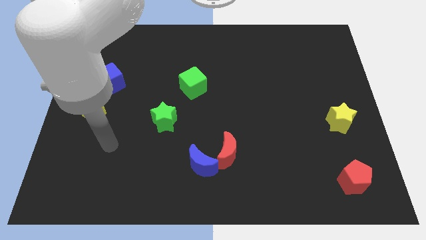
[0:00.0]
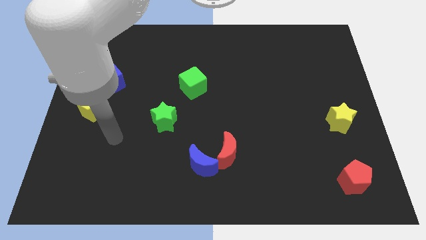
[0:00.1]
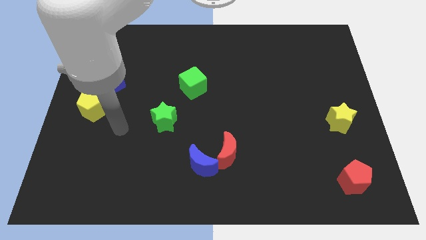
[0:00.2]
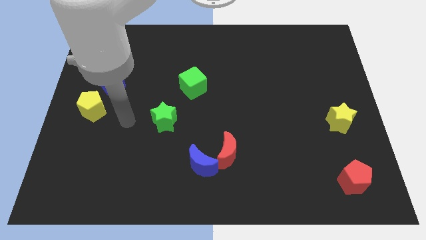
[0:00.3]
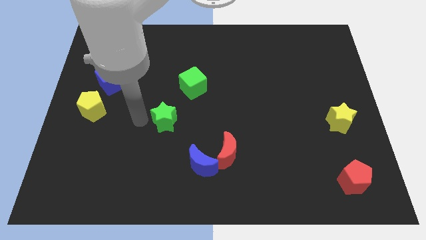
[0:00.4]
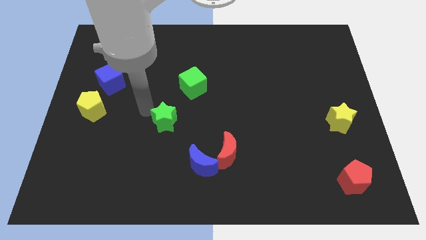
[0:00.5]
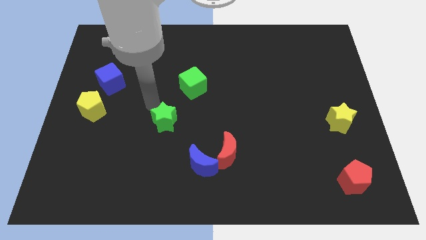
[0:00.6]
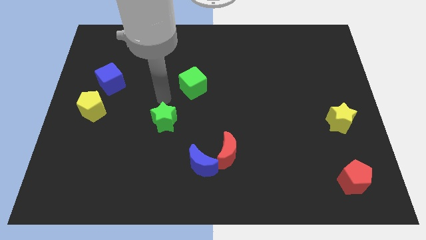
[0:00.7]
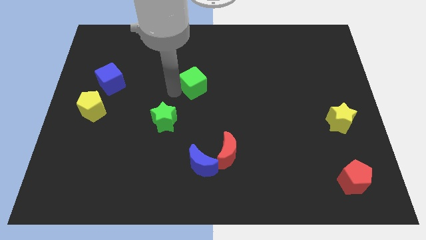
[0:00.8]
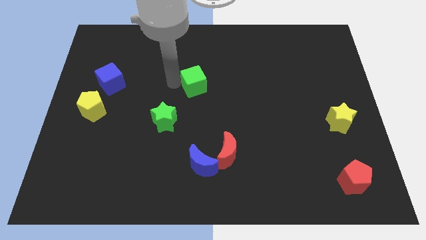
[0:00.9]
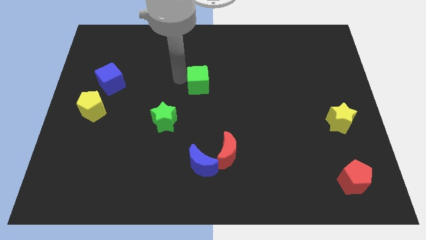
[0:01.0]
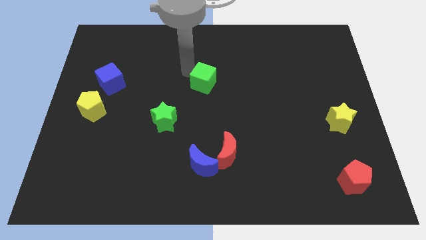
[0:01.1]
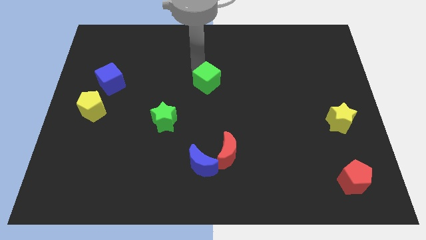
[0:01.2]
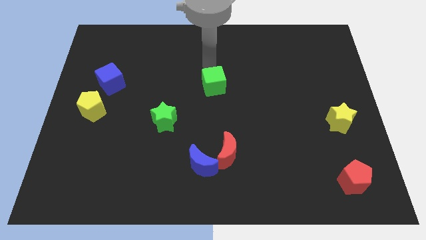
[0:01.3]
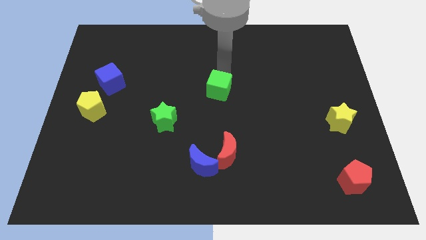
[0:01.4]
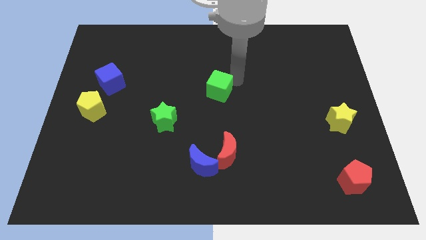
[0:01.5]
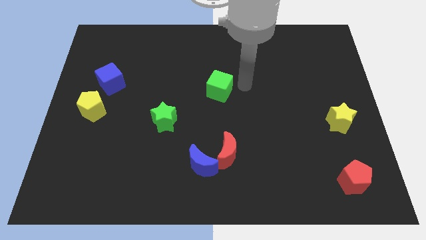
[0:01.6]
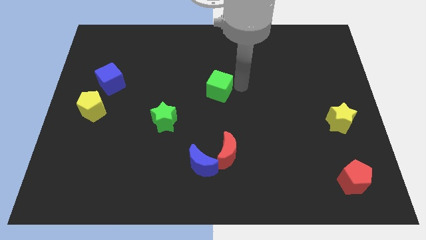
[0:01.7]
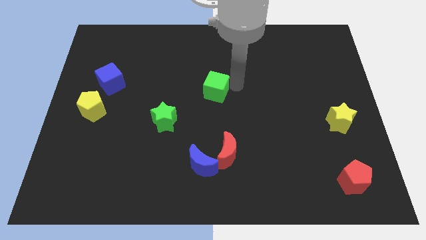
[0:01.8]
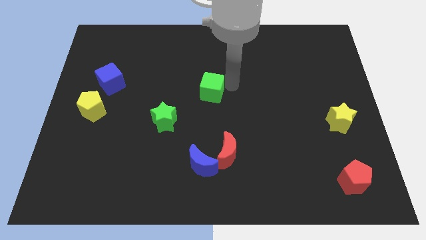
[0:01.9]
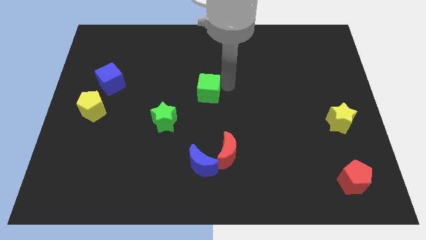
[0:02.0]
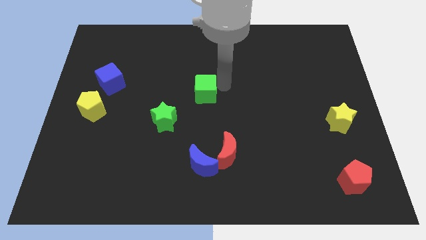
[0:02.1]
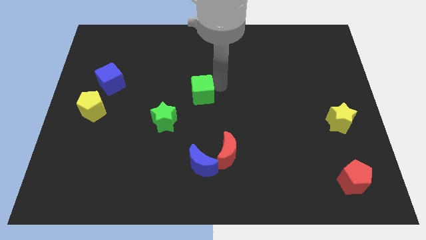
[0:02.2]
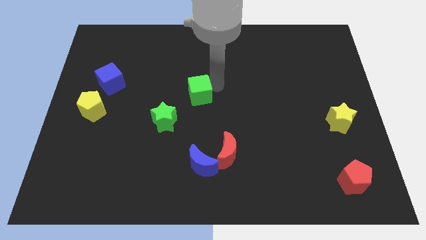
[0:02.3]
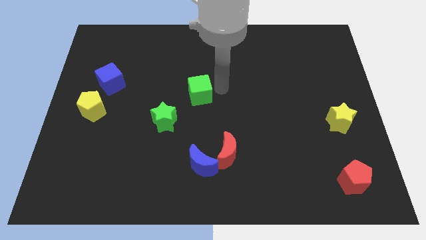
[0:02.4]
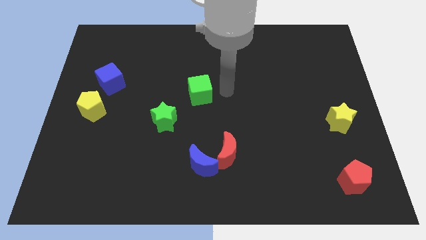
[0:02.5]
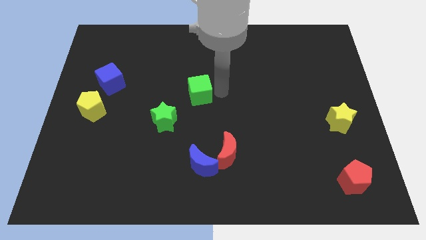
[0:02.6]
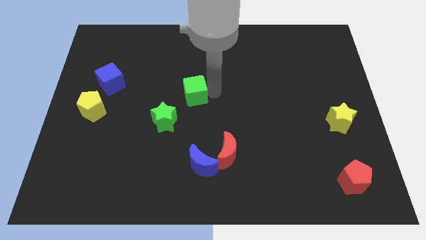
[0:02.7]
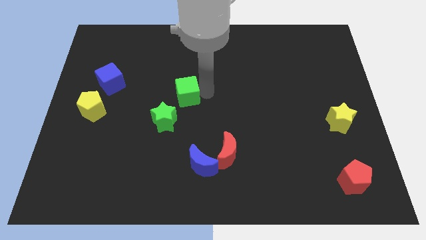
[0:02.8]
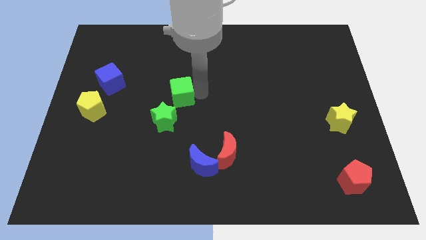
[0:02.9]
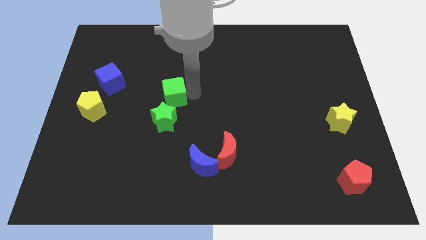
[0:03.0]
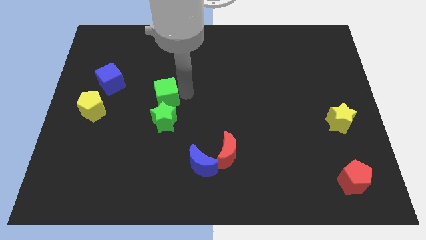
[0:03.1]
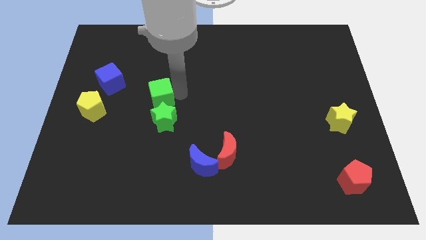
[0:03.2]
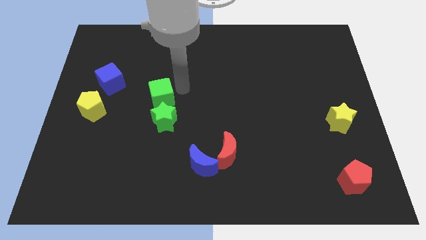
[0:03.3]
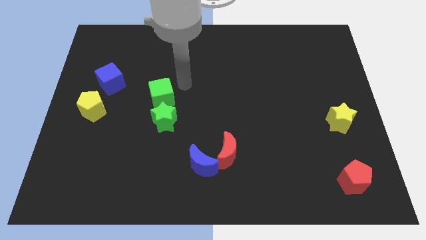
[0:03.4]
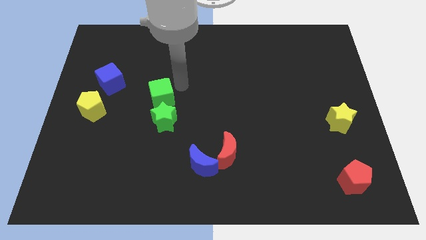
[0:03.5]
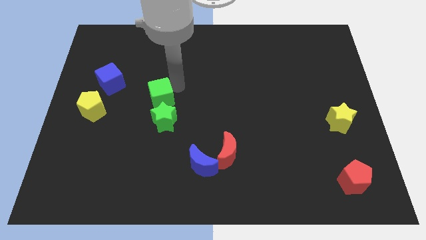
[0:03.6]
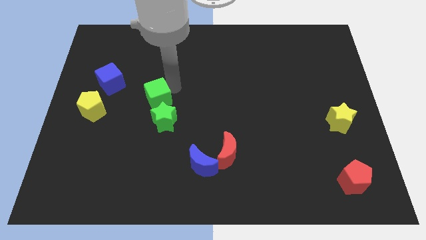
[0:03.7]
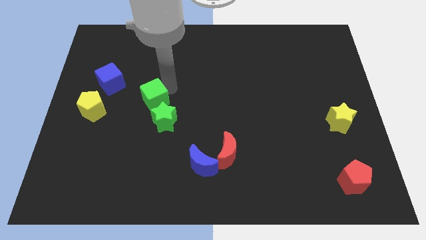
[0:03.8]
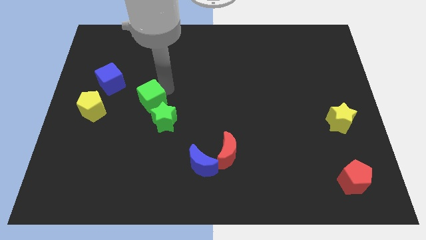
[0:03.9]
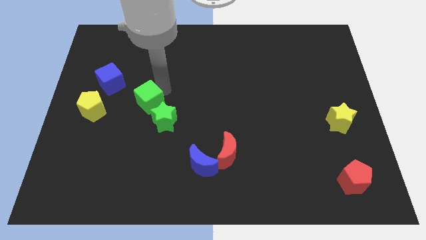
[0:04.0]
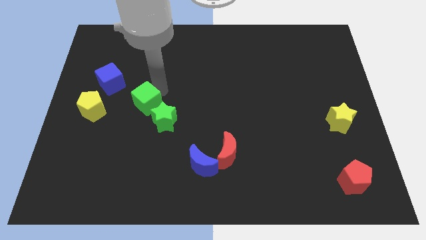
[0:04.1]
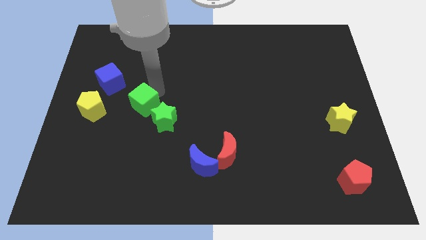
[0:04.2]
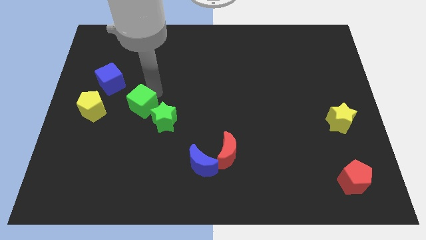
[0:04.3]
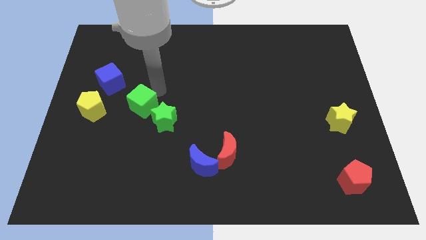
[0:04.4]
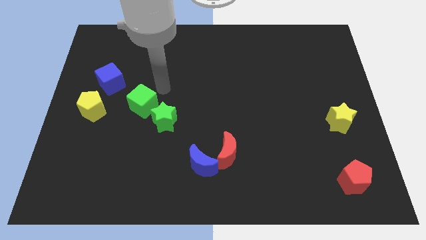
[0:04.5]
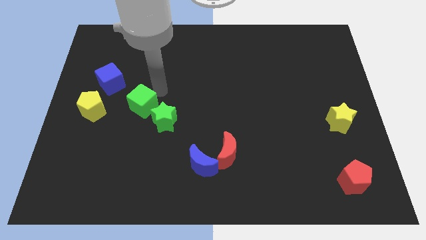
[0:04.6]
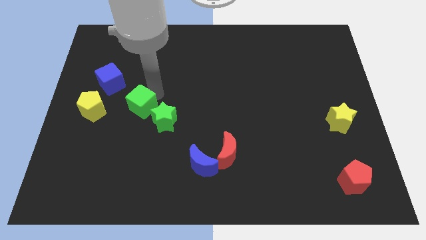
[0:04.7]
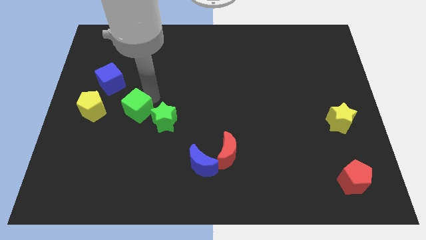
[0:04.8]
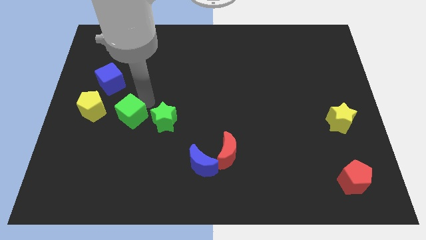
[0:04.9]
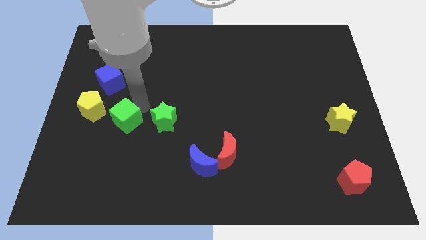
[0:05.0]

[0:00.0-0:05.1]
put the green cube to the bottom right of the yellow pentagon

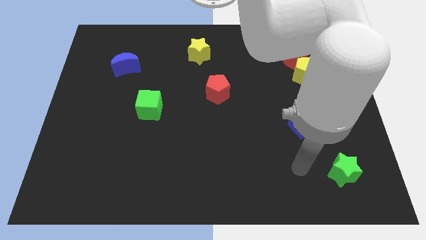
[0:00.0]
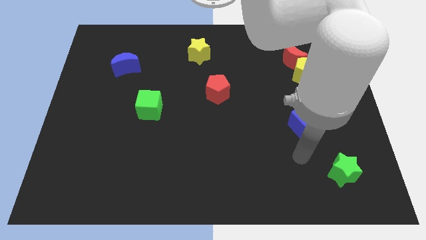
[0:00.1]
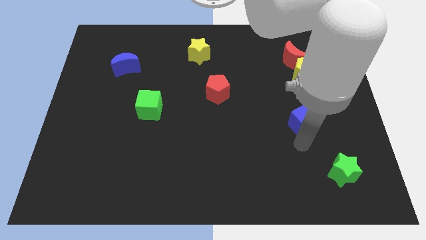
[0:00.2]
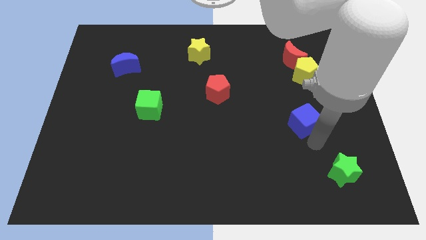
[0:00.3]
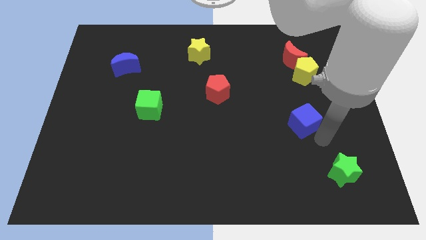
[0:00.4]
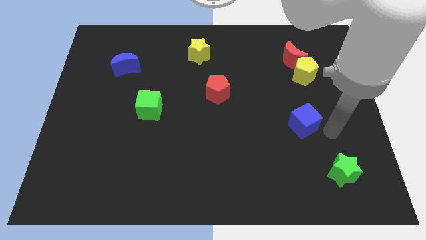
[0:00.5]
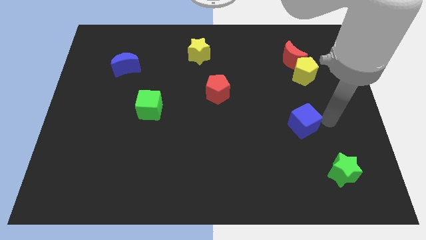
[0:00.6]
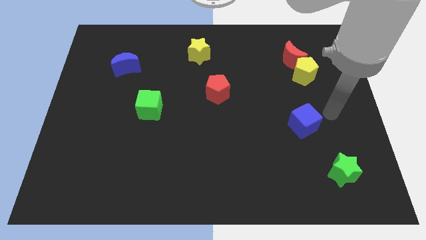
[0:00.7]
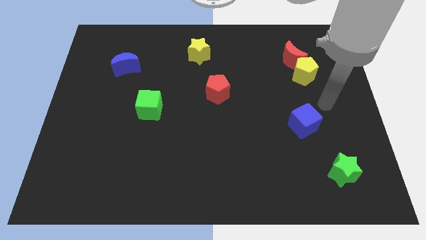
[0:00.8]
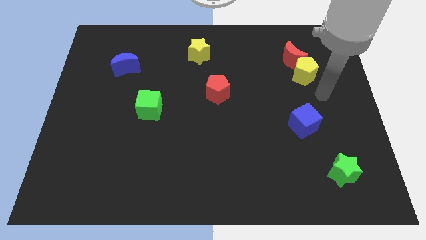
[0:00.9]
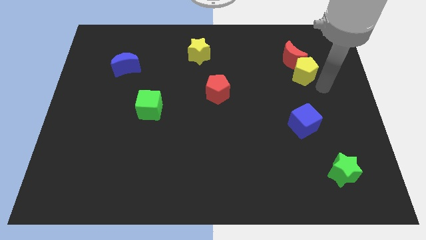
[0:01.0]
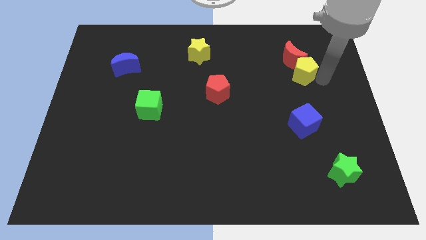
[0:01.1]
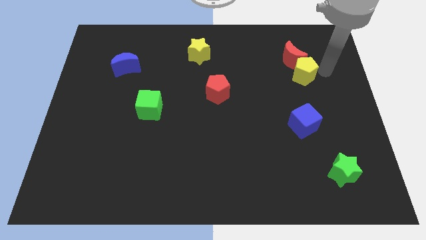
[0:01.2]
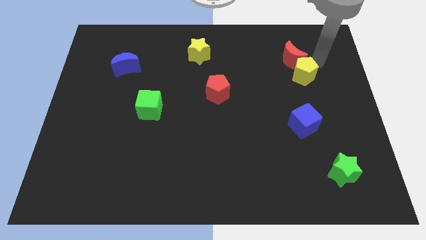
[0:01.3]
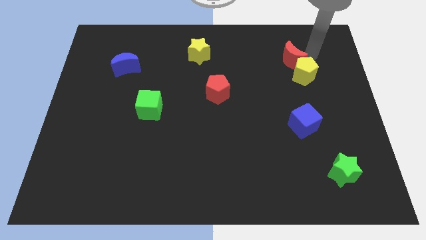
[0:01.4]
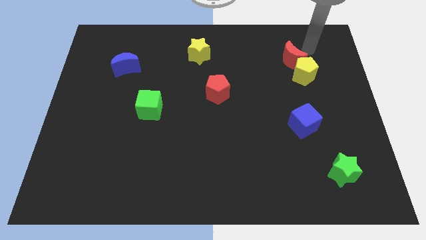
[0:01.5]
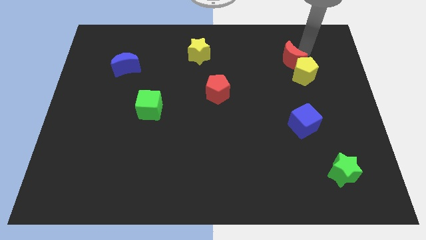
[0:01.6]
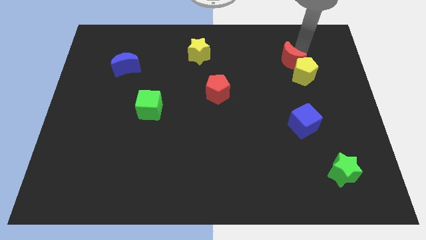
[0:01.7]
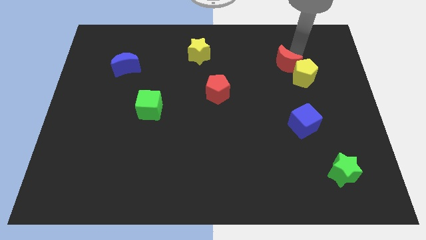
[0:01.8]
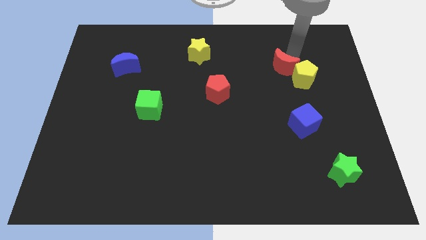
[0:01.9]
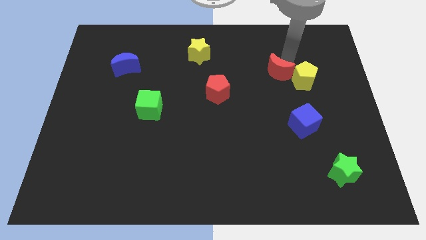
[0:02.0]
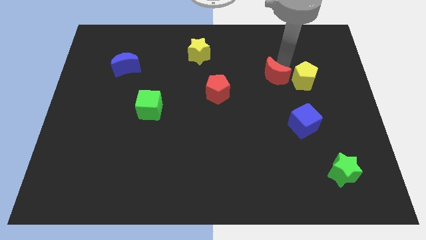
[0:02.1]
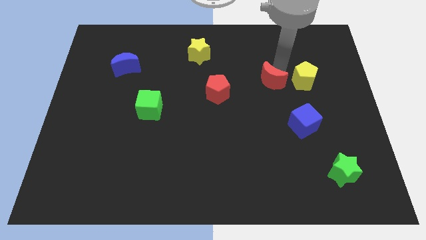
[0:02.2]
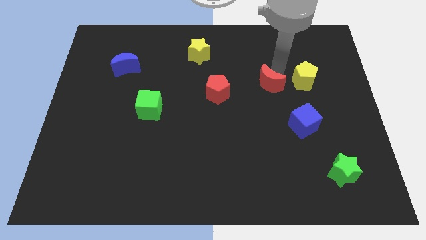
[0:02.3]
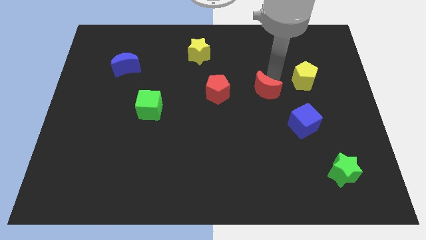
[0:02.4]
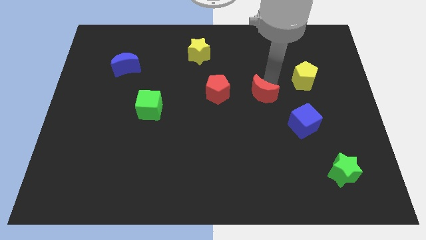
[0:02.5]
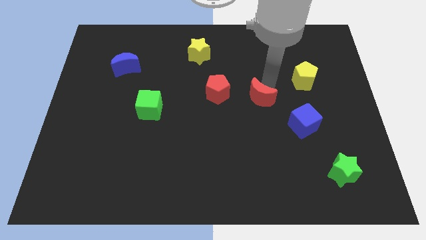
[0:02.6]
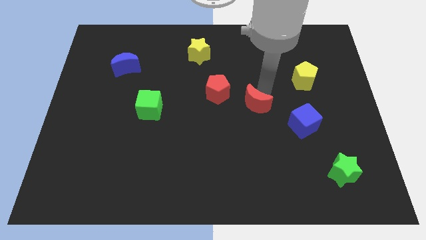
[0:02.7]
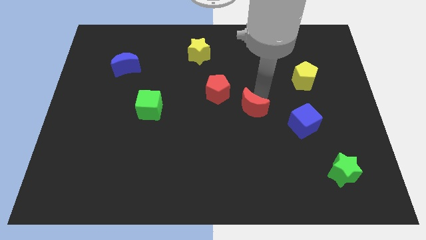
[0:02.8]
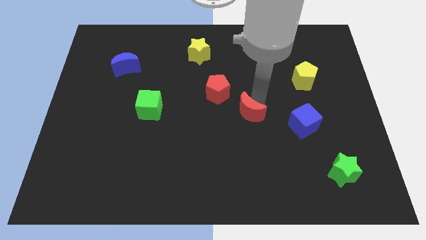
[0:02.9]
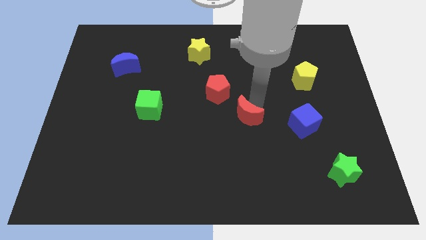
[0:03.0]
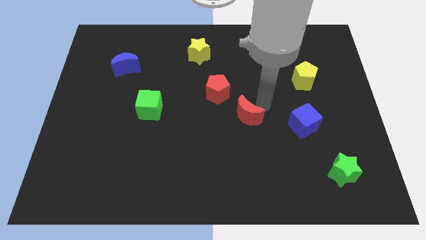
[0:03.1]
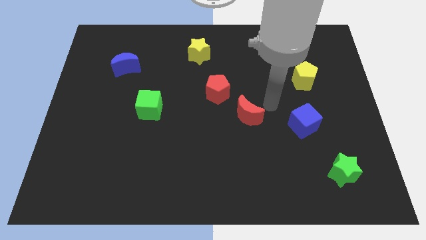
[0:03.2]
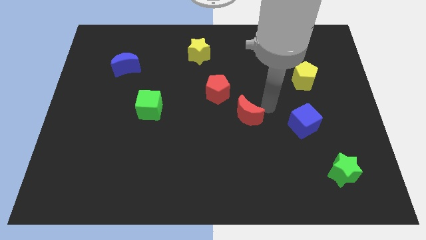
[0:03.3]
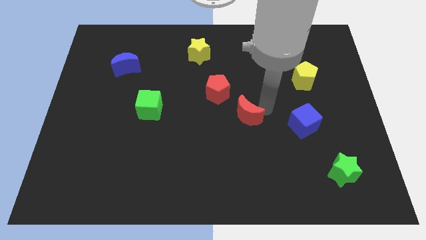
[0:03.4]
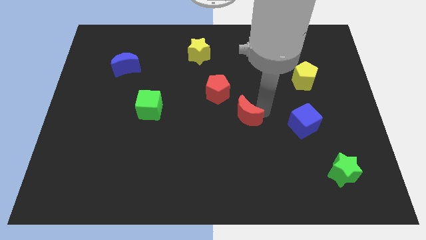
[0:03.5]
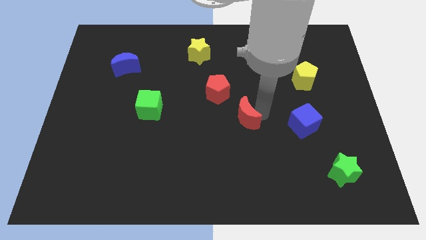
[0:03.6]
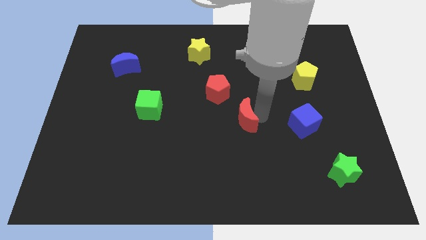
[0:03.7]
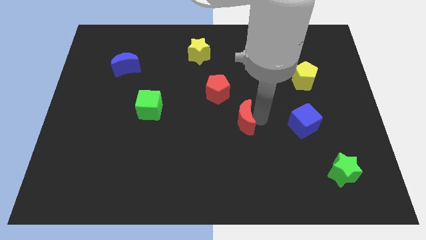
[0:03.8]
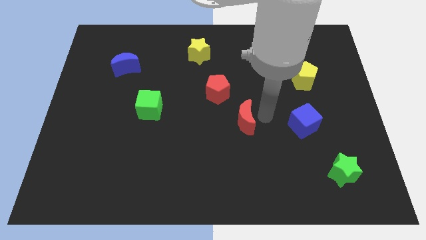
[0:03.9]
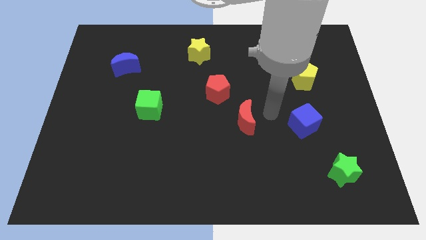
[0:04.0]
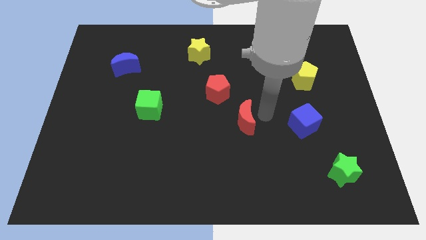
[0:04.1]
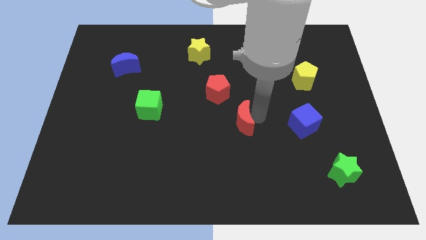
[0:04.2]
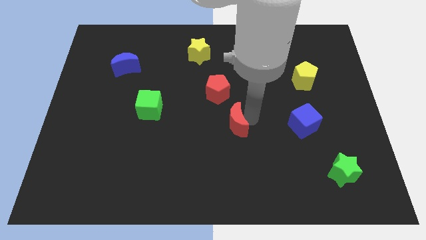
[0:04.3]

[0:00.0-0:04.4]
put the red moon to the bottom of the red pentagon
